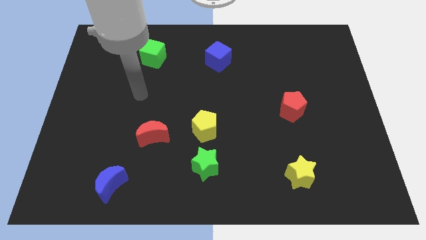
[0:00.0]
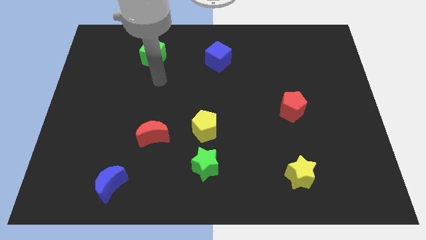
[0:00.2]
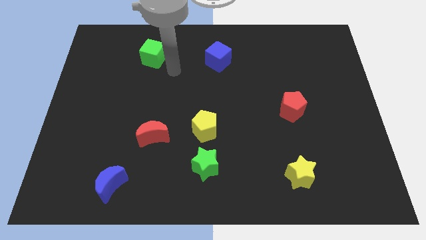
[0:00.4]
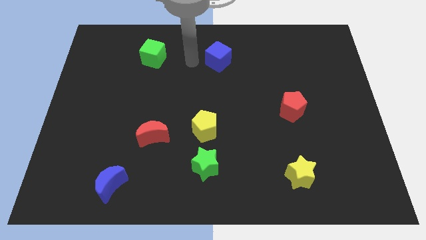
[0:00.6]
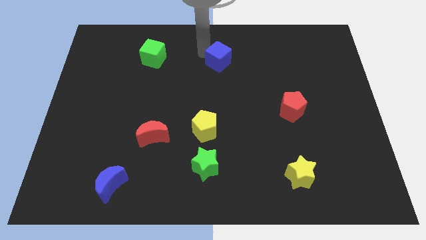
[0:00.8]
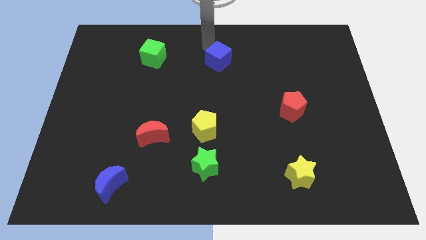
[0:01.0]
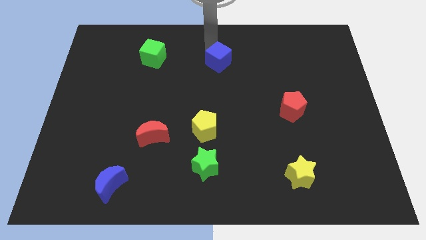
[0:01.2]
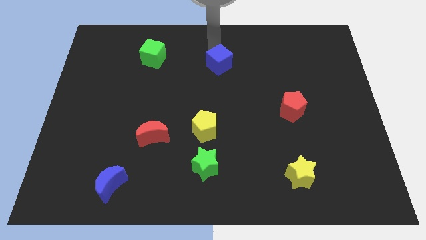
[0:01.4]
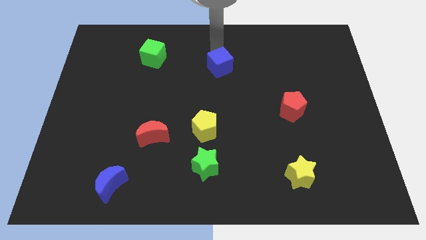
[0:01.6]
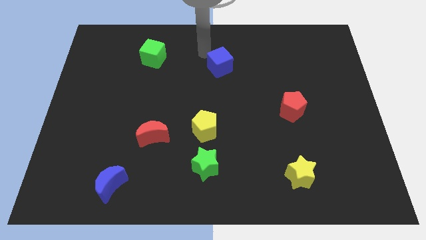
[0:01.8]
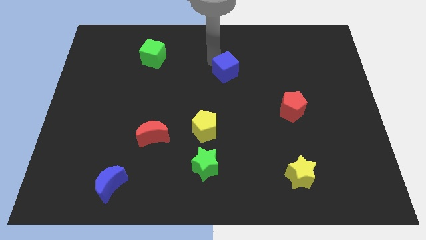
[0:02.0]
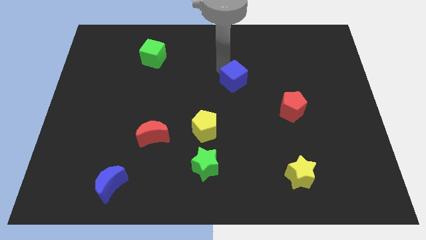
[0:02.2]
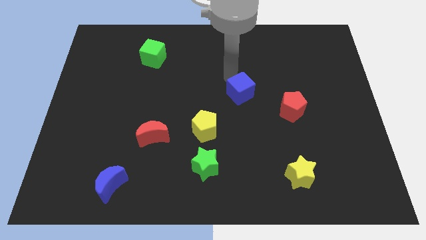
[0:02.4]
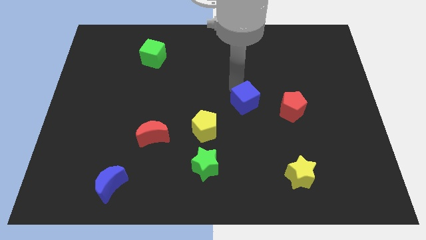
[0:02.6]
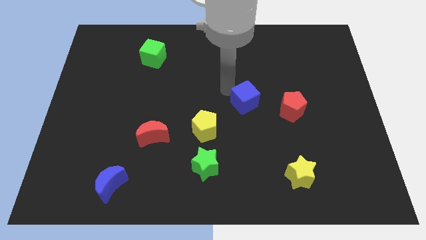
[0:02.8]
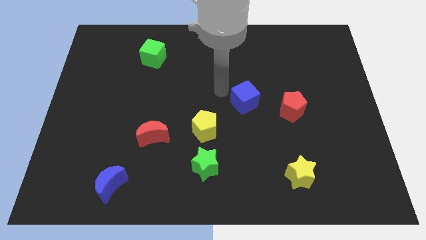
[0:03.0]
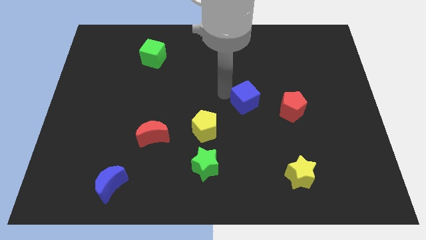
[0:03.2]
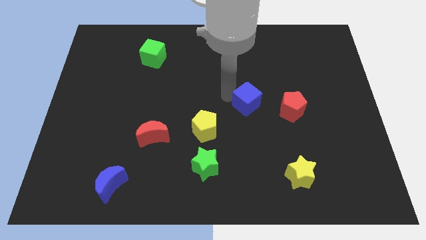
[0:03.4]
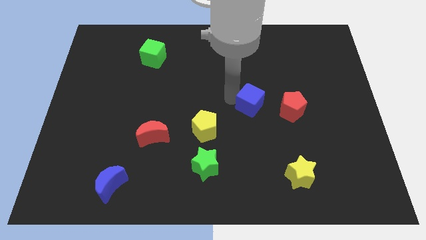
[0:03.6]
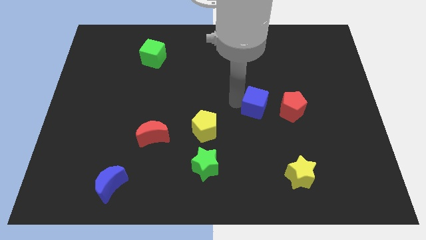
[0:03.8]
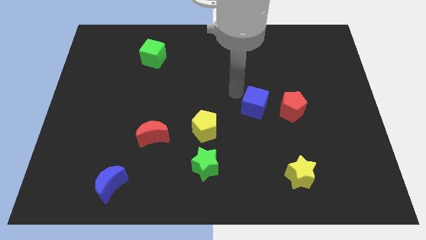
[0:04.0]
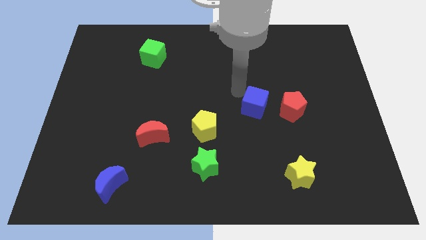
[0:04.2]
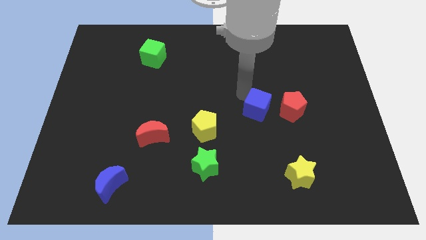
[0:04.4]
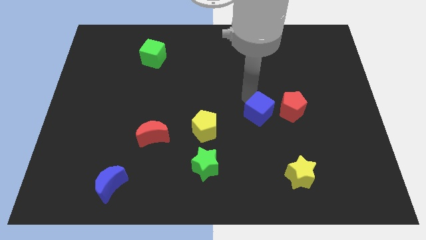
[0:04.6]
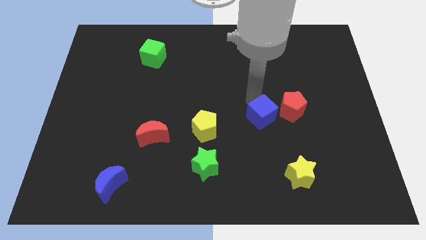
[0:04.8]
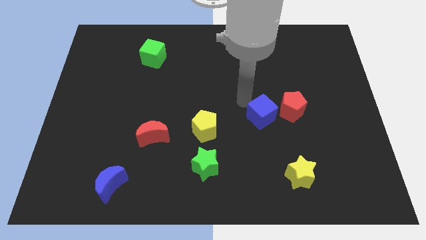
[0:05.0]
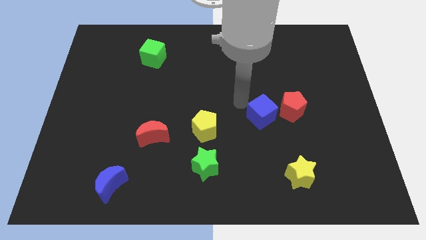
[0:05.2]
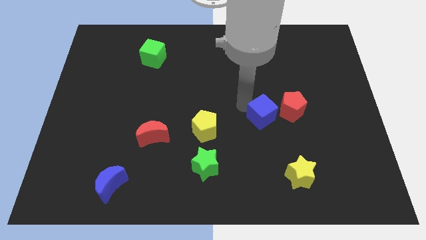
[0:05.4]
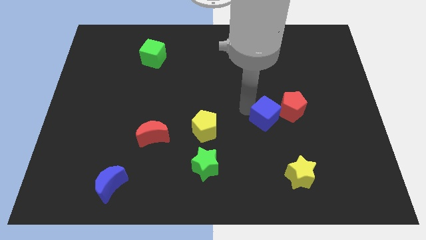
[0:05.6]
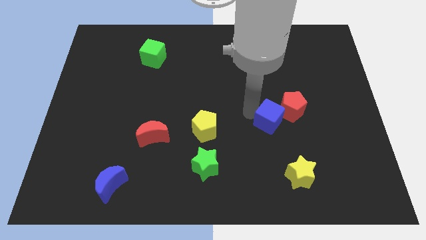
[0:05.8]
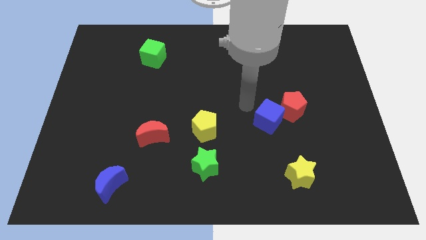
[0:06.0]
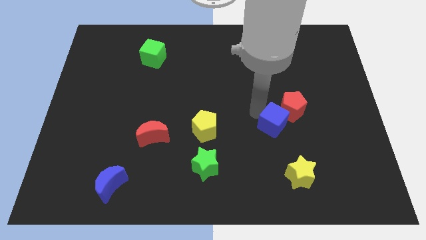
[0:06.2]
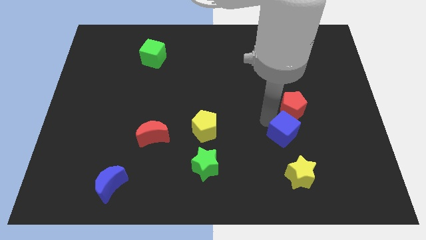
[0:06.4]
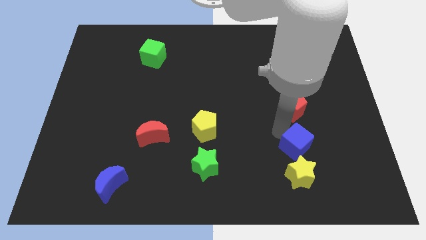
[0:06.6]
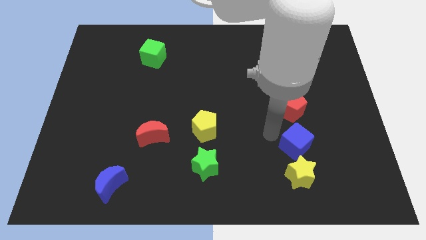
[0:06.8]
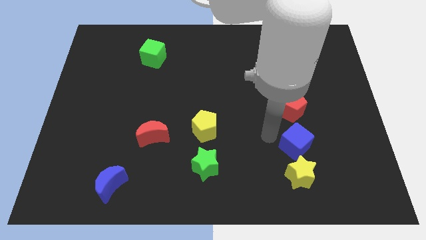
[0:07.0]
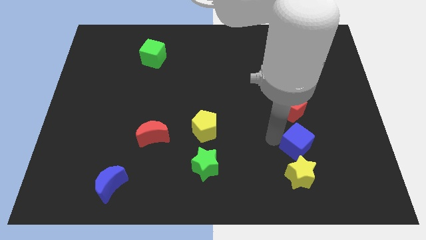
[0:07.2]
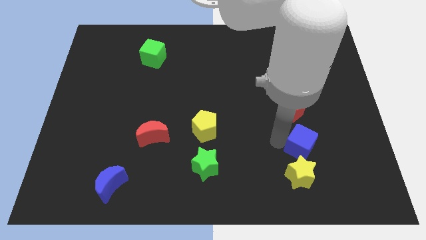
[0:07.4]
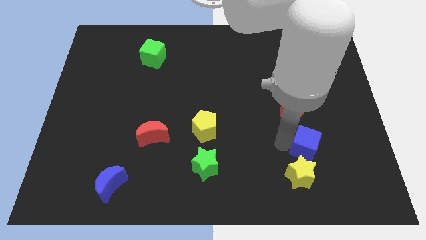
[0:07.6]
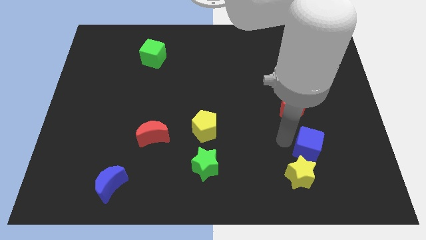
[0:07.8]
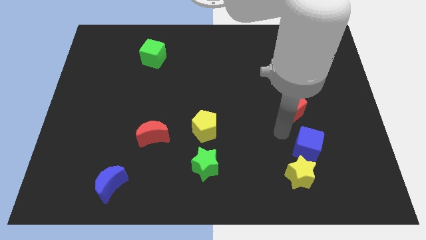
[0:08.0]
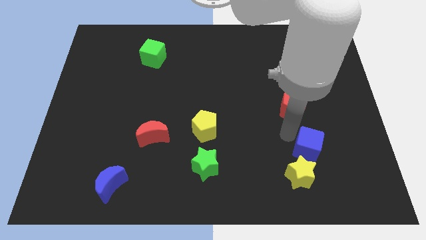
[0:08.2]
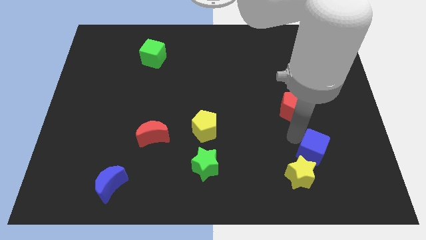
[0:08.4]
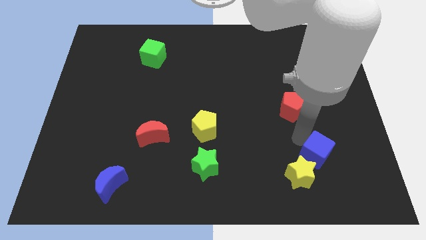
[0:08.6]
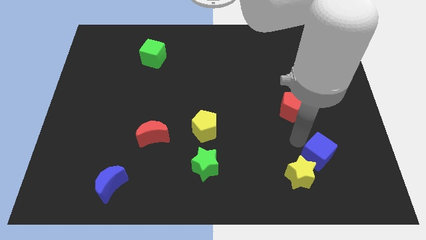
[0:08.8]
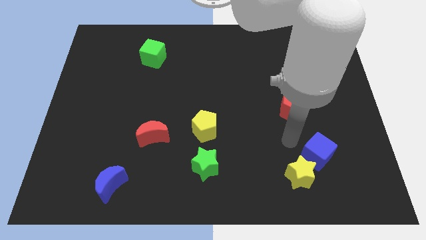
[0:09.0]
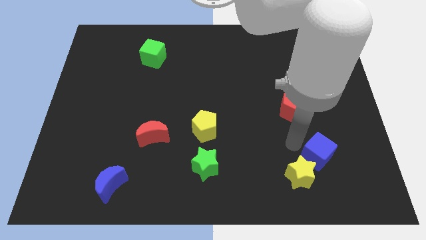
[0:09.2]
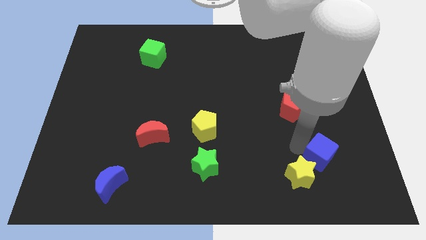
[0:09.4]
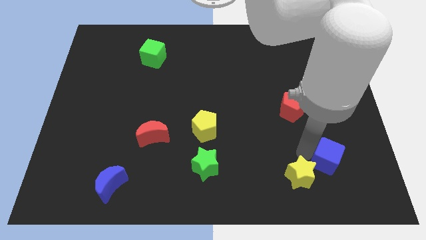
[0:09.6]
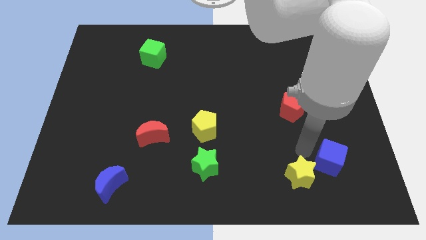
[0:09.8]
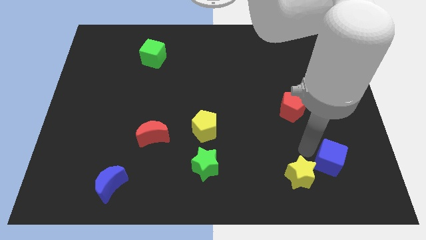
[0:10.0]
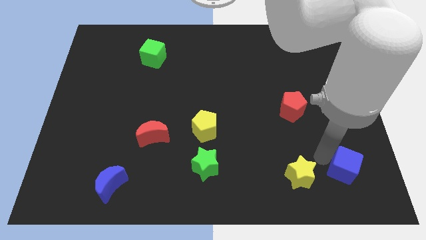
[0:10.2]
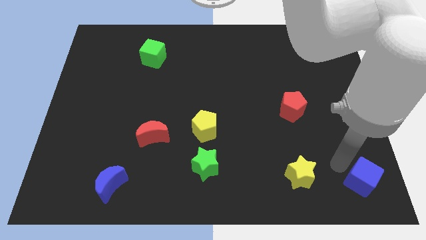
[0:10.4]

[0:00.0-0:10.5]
move the blue cube to the lower right corner

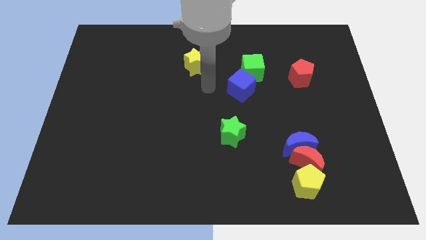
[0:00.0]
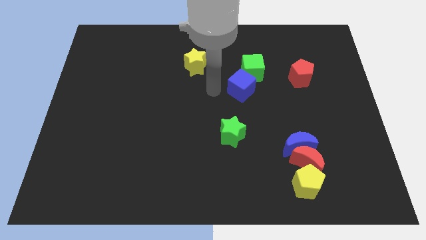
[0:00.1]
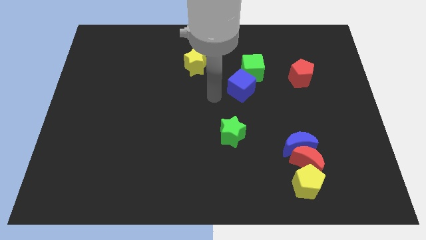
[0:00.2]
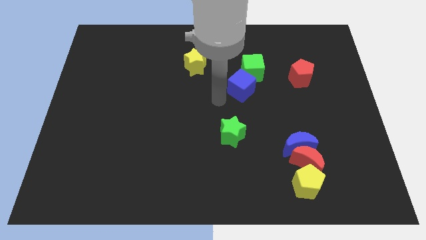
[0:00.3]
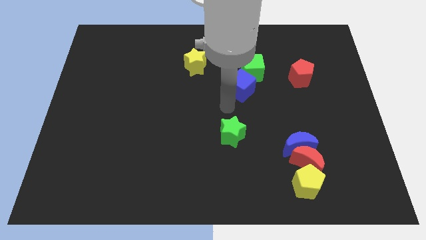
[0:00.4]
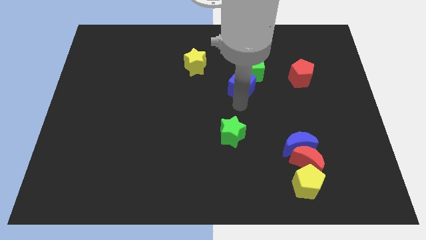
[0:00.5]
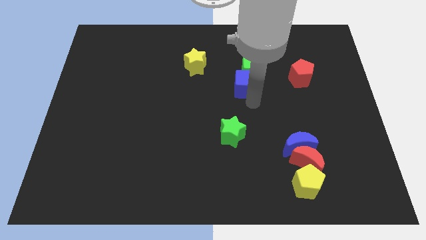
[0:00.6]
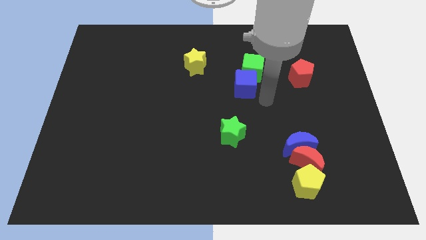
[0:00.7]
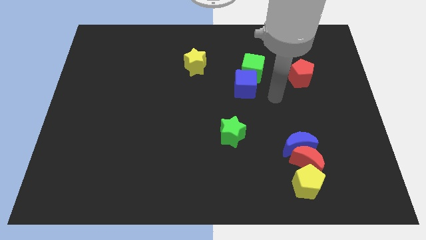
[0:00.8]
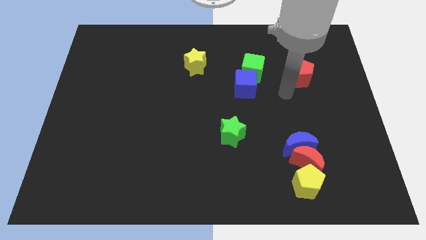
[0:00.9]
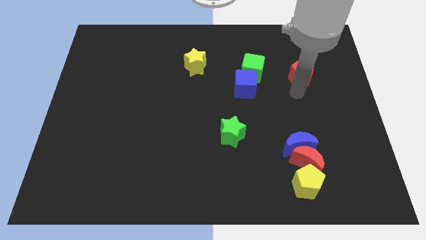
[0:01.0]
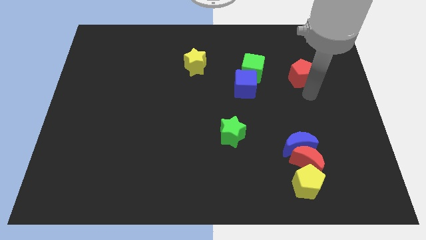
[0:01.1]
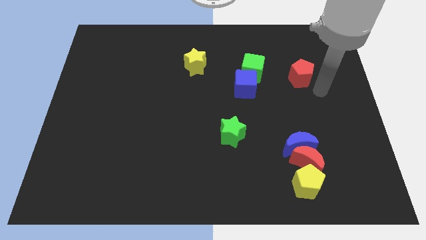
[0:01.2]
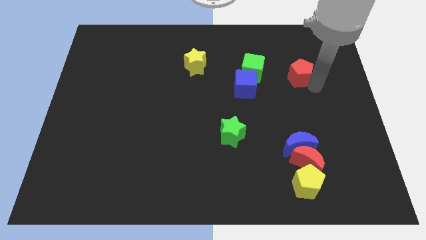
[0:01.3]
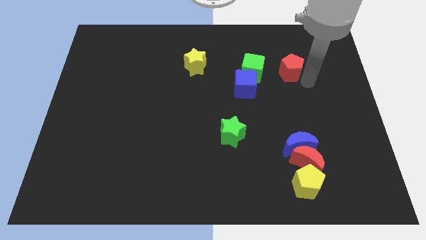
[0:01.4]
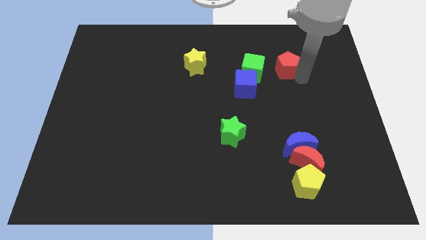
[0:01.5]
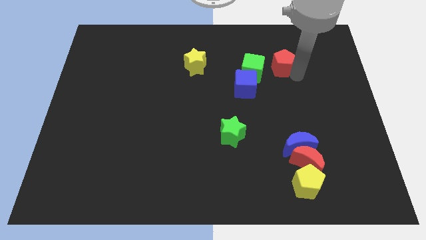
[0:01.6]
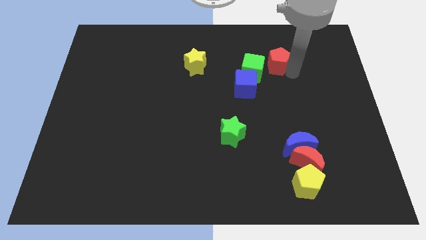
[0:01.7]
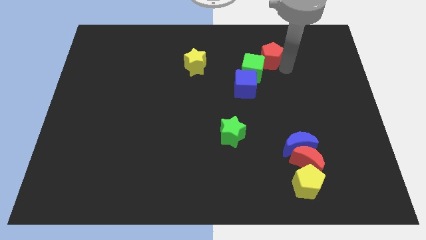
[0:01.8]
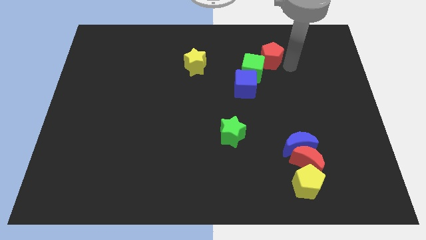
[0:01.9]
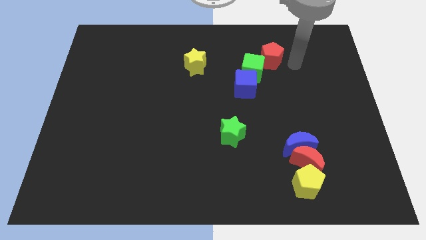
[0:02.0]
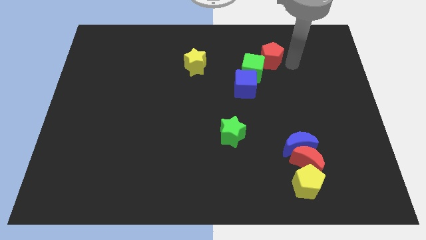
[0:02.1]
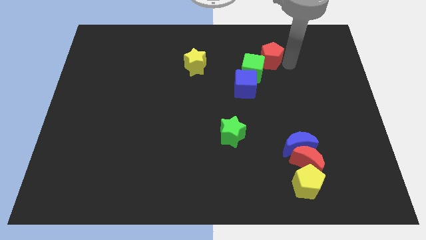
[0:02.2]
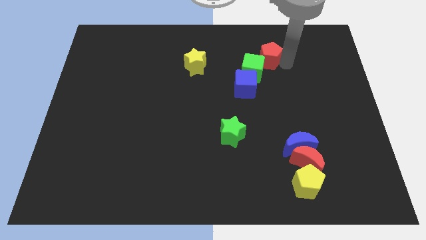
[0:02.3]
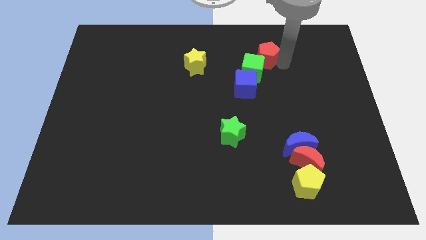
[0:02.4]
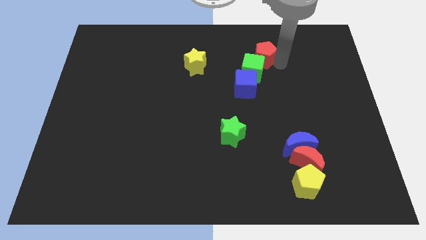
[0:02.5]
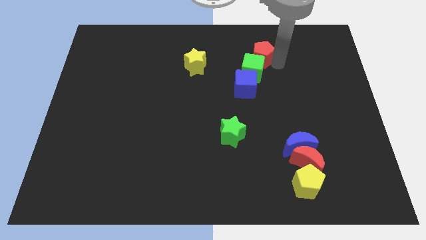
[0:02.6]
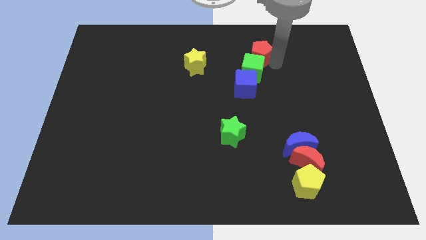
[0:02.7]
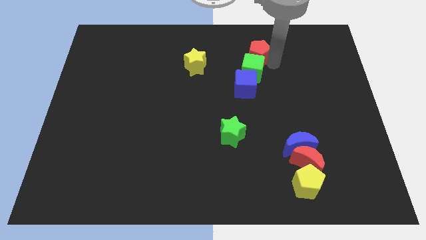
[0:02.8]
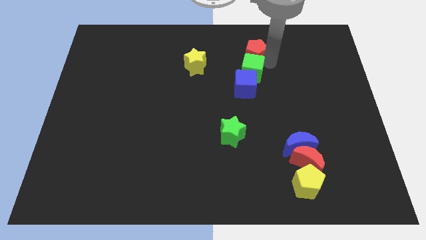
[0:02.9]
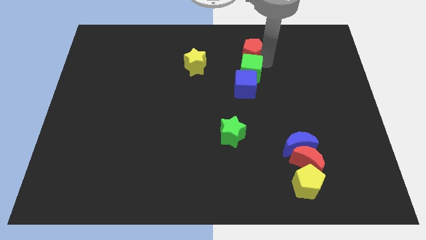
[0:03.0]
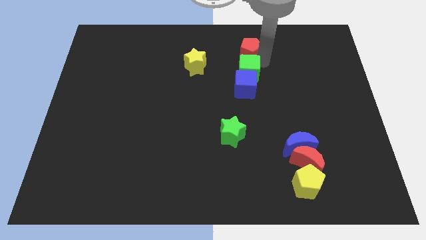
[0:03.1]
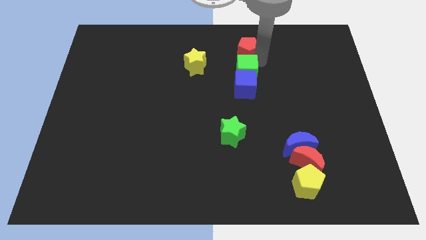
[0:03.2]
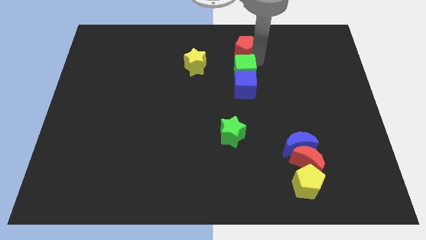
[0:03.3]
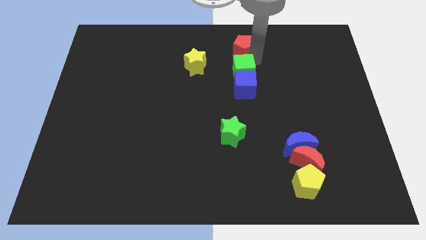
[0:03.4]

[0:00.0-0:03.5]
push the red pentagon to the towards your base
